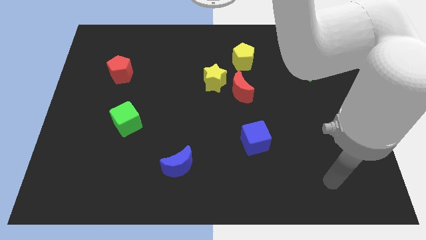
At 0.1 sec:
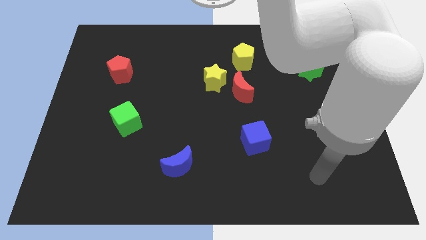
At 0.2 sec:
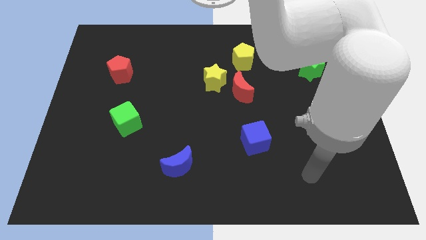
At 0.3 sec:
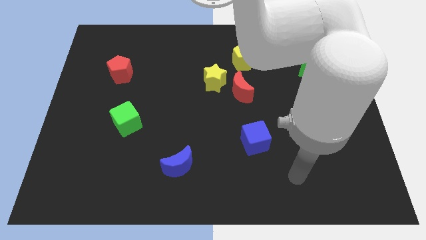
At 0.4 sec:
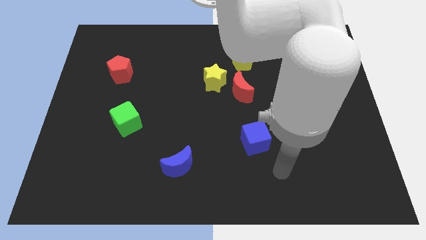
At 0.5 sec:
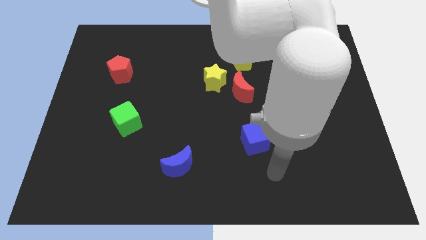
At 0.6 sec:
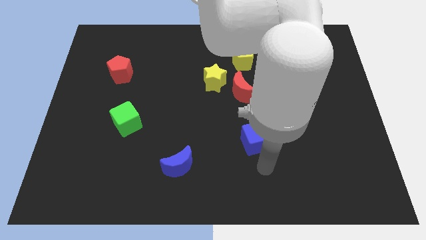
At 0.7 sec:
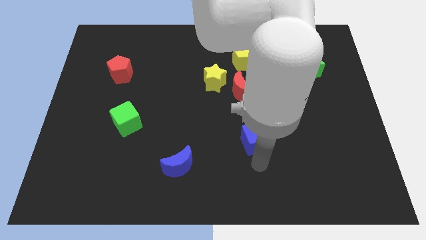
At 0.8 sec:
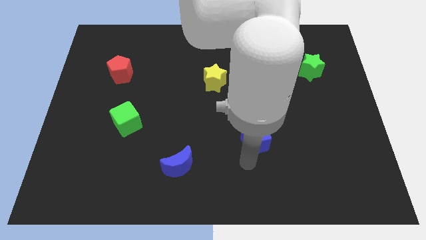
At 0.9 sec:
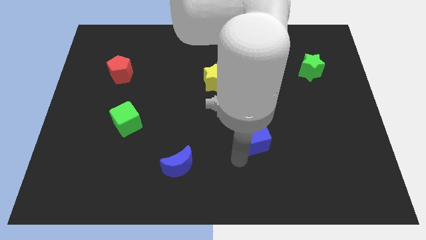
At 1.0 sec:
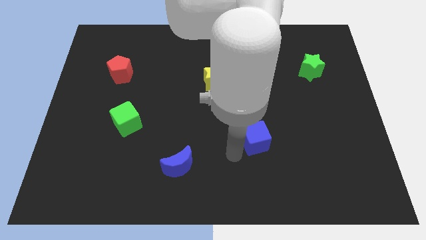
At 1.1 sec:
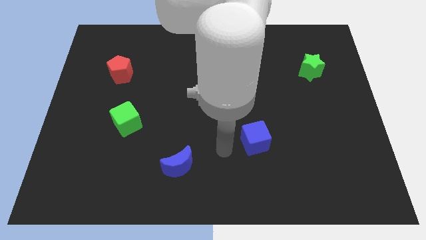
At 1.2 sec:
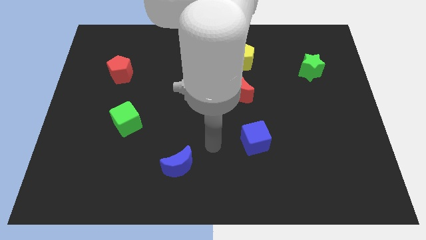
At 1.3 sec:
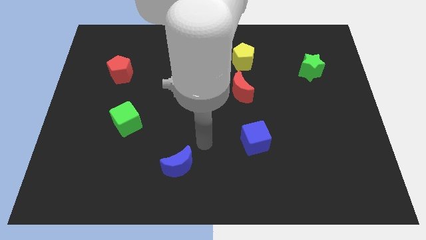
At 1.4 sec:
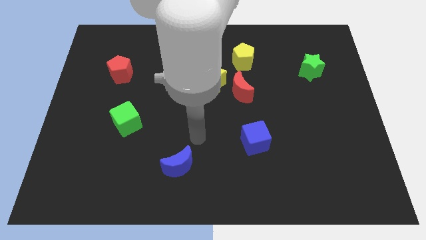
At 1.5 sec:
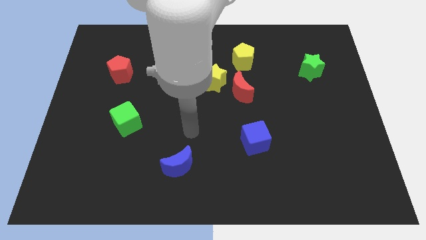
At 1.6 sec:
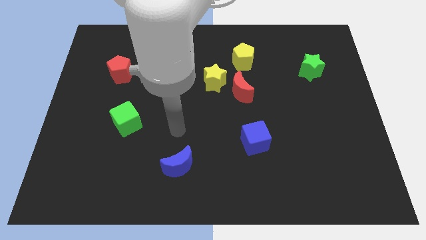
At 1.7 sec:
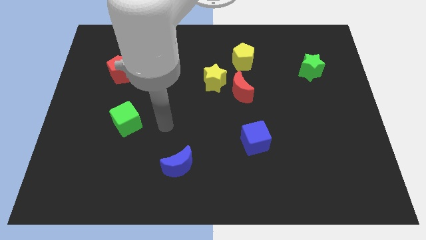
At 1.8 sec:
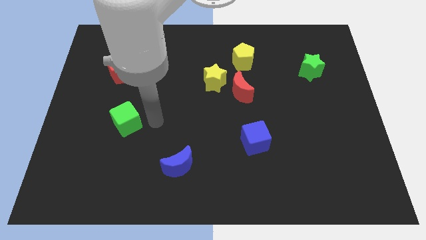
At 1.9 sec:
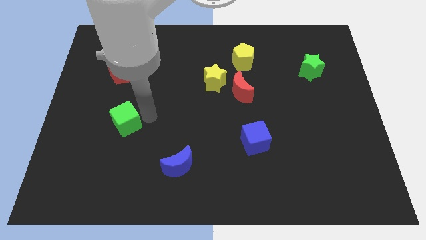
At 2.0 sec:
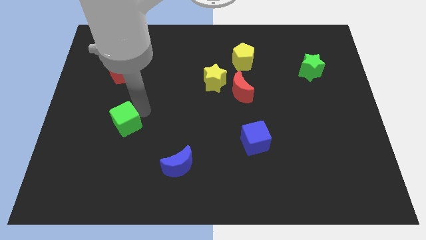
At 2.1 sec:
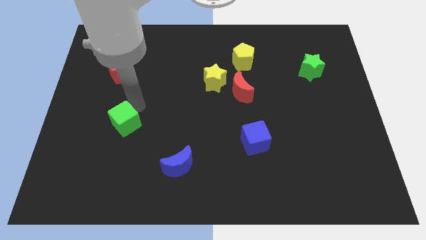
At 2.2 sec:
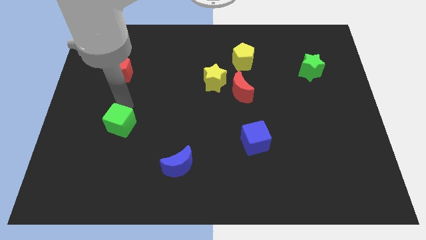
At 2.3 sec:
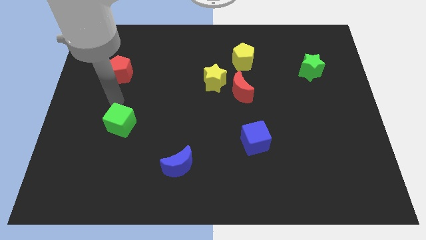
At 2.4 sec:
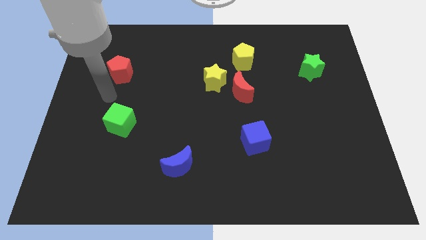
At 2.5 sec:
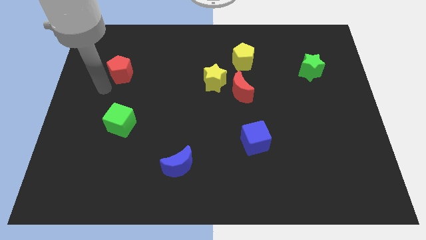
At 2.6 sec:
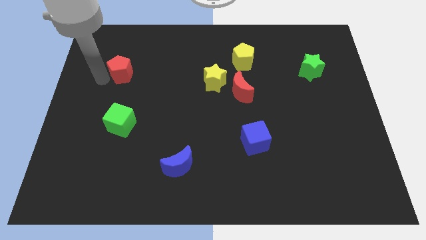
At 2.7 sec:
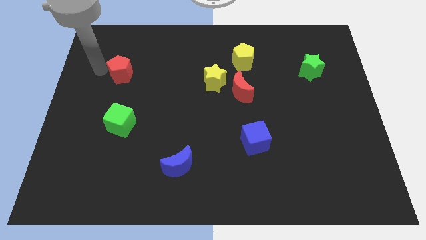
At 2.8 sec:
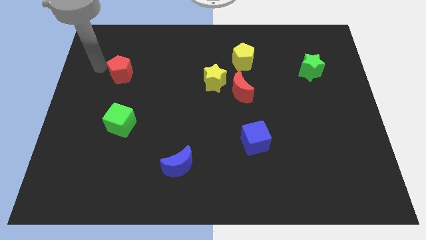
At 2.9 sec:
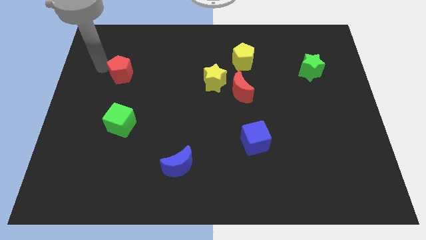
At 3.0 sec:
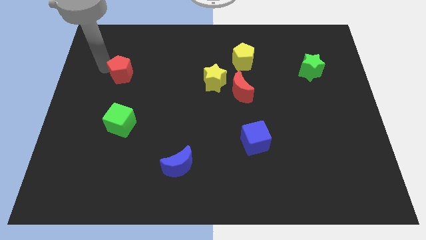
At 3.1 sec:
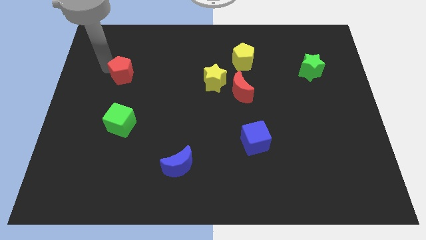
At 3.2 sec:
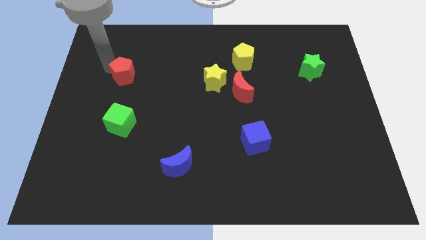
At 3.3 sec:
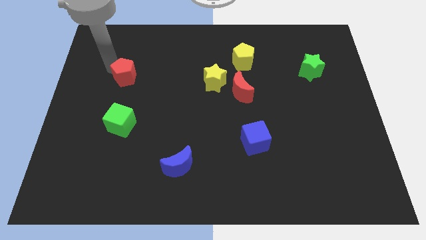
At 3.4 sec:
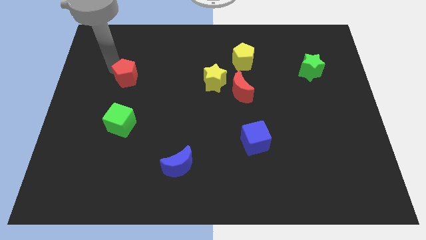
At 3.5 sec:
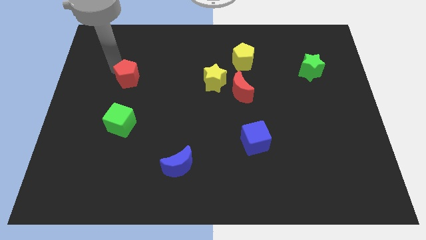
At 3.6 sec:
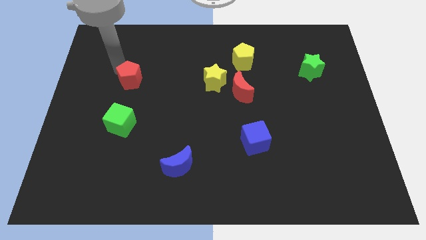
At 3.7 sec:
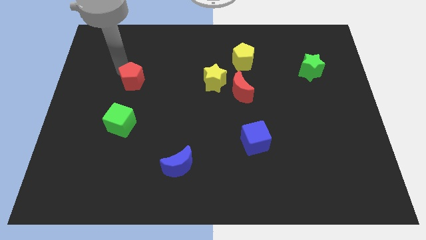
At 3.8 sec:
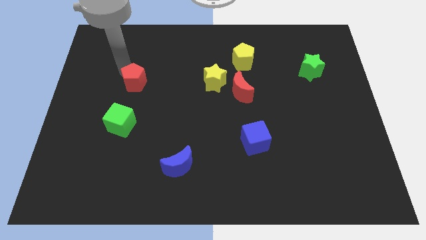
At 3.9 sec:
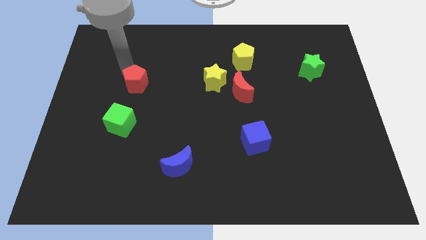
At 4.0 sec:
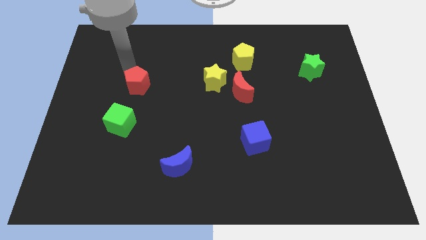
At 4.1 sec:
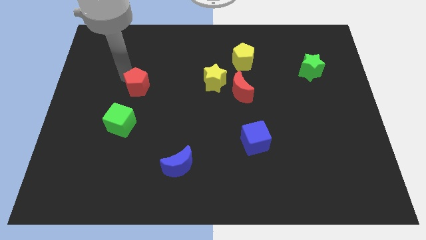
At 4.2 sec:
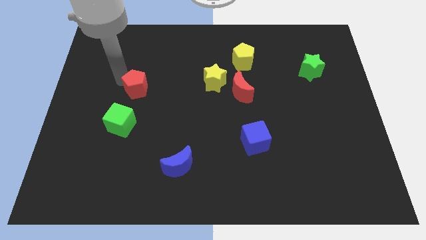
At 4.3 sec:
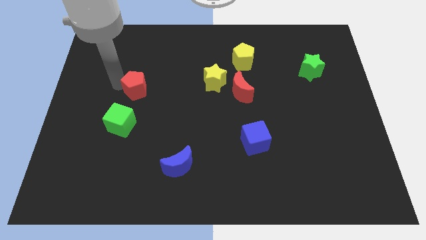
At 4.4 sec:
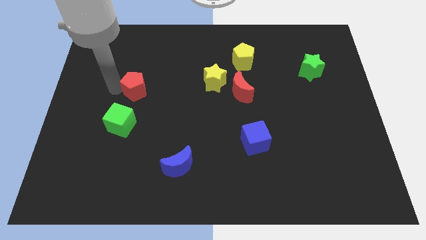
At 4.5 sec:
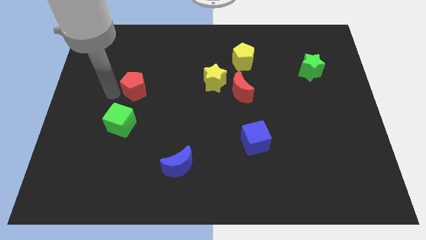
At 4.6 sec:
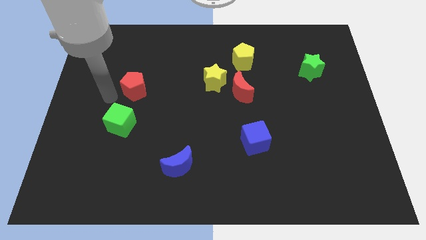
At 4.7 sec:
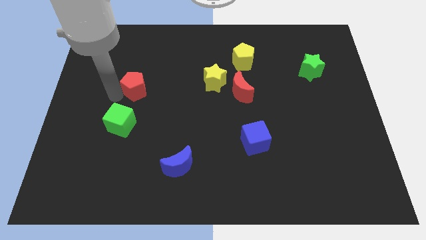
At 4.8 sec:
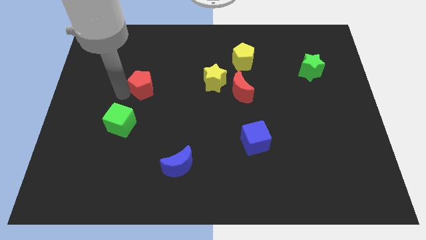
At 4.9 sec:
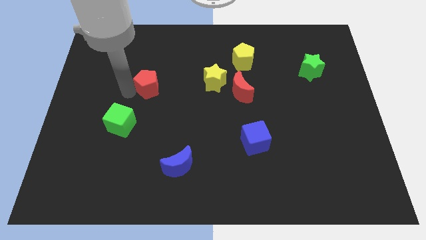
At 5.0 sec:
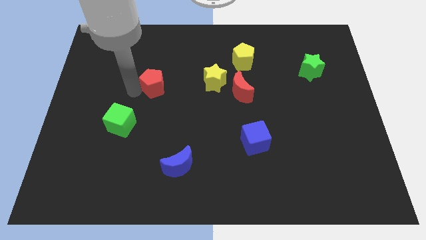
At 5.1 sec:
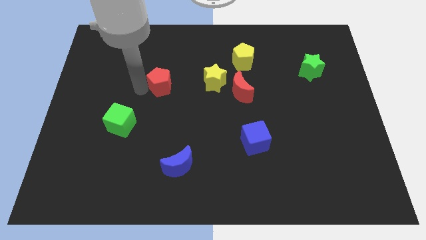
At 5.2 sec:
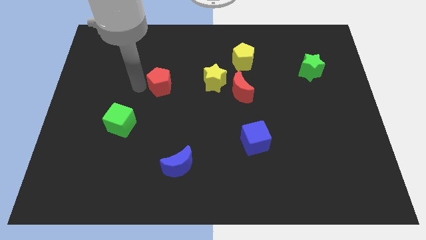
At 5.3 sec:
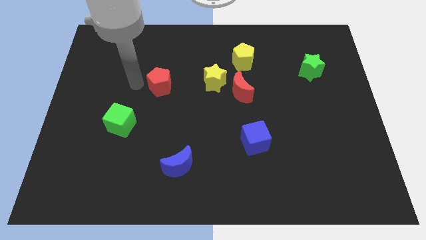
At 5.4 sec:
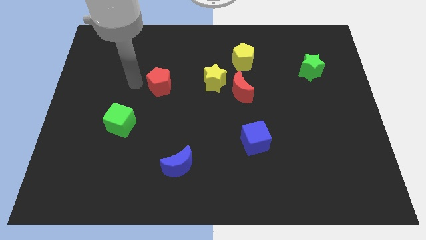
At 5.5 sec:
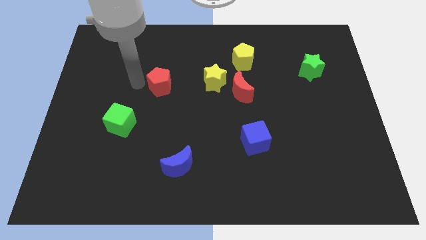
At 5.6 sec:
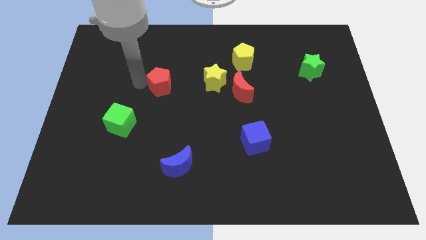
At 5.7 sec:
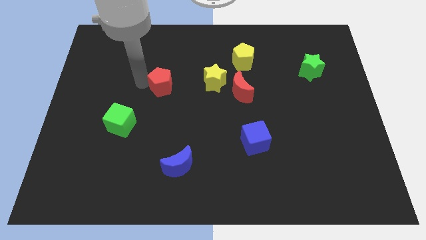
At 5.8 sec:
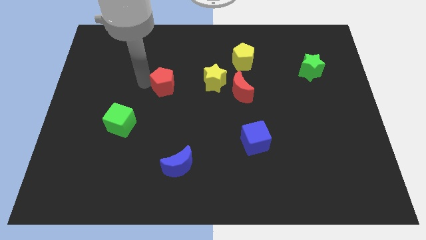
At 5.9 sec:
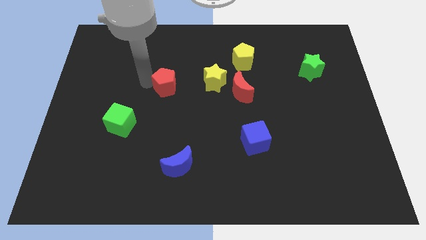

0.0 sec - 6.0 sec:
slide the red pentagon to the middle of the board
